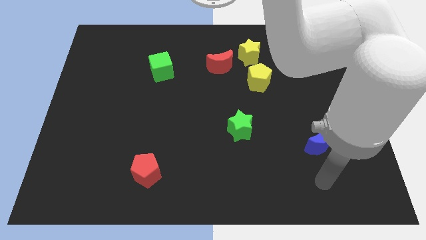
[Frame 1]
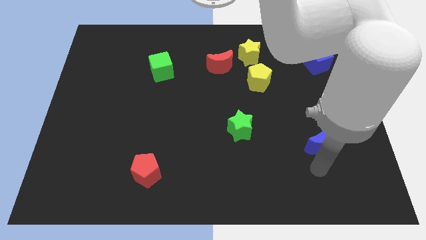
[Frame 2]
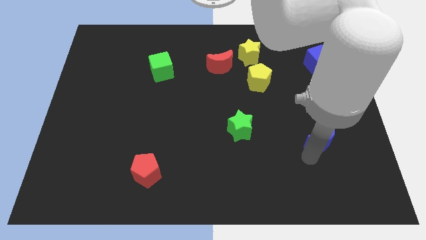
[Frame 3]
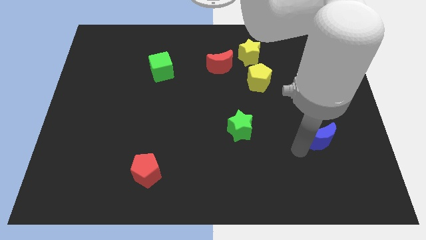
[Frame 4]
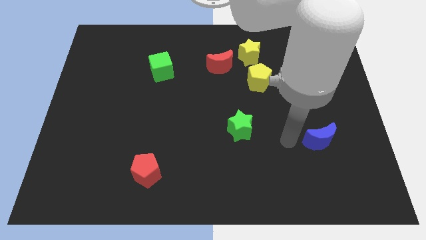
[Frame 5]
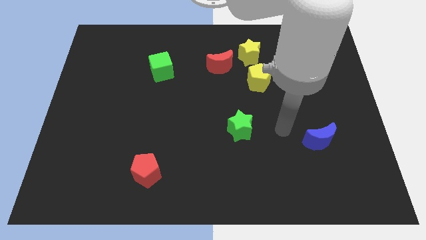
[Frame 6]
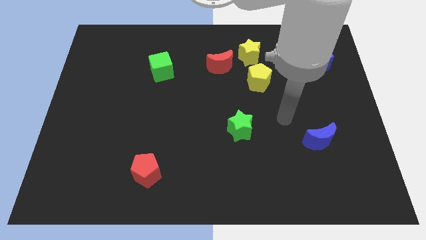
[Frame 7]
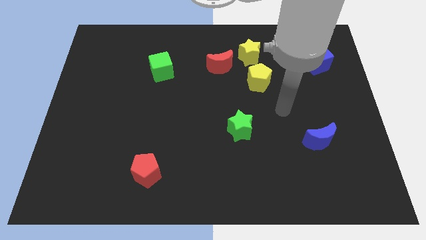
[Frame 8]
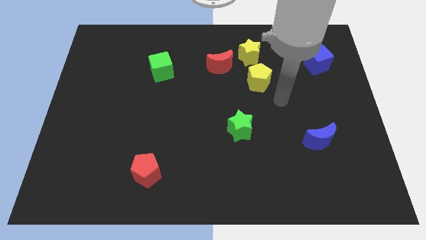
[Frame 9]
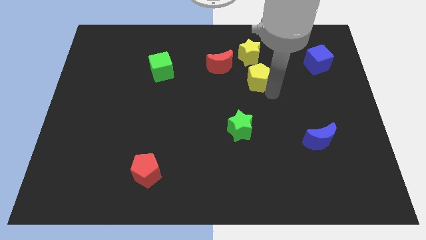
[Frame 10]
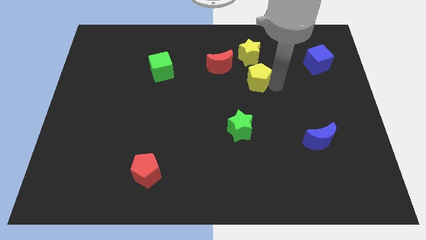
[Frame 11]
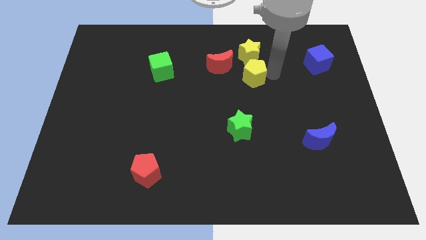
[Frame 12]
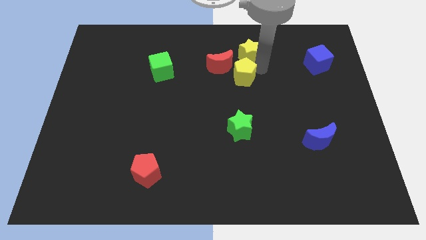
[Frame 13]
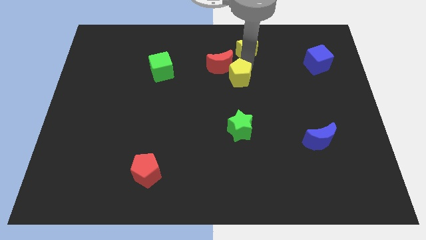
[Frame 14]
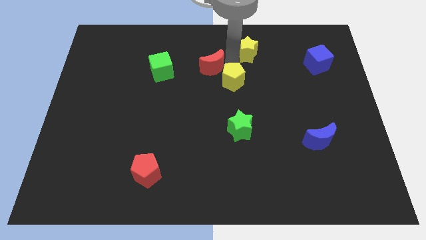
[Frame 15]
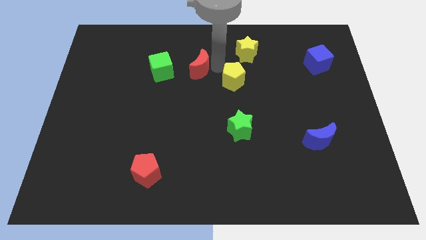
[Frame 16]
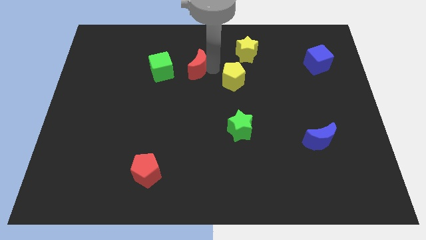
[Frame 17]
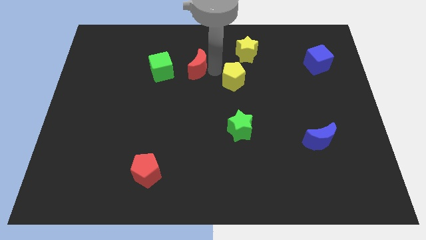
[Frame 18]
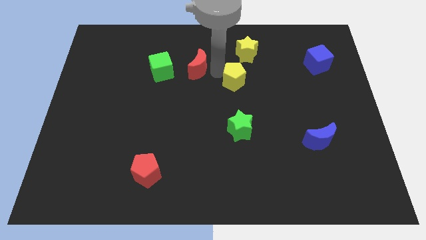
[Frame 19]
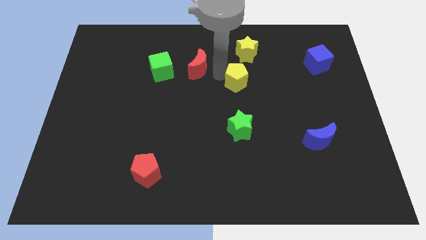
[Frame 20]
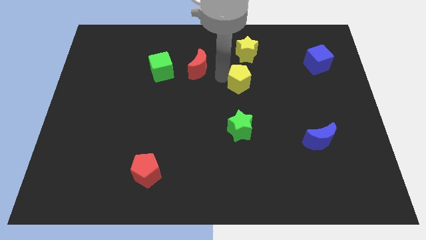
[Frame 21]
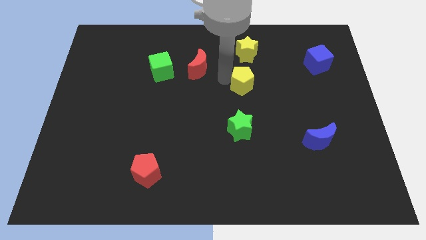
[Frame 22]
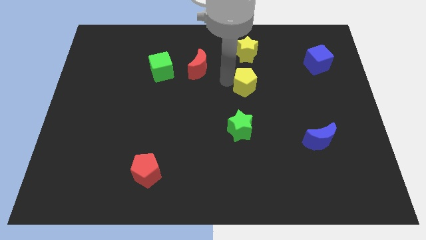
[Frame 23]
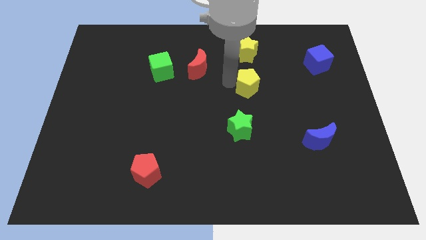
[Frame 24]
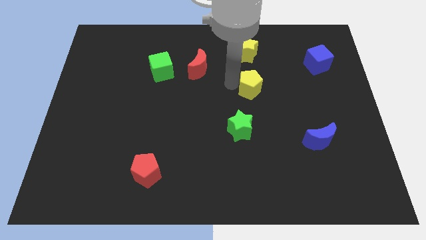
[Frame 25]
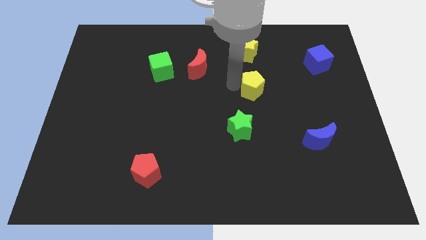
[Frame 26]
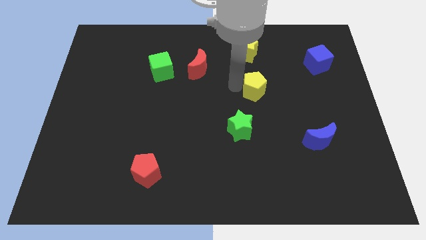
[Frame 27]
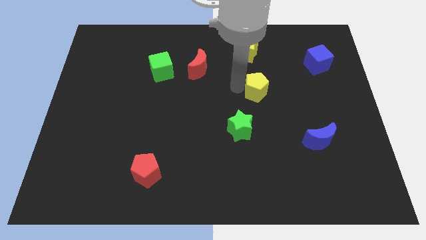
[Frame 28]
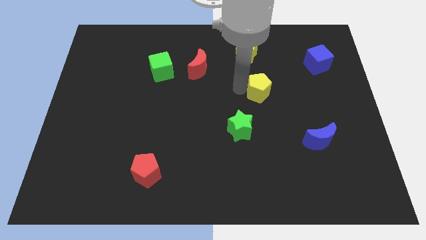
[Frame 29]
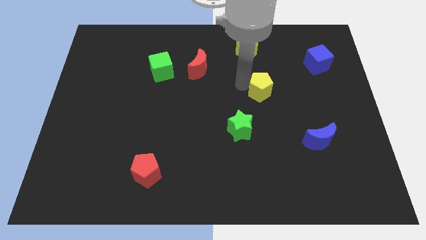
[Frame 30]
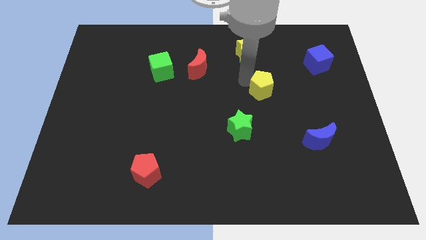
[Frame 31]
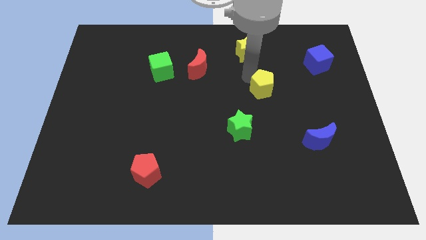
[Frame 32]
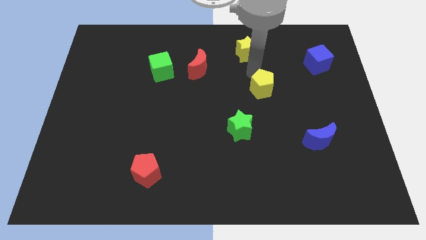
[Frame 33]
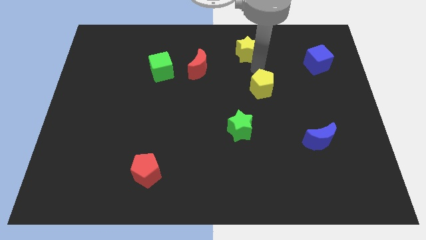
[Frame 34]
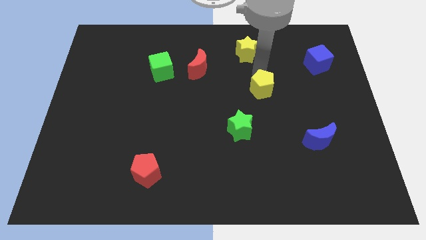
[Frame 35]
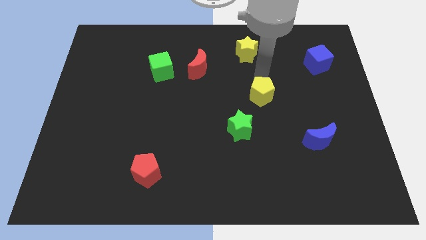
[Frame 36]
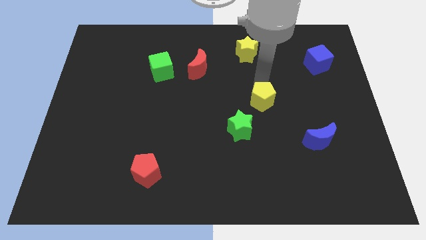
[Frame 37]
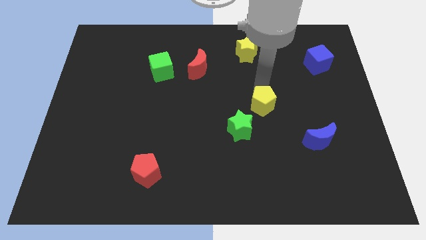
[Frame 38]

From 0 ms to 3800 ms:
push the yellow pentagon a bit down

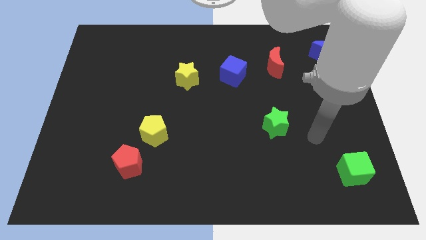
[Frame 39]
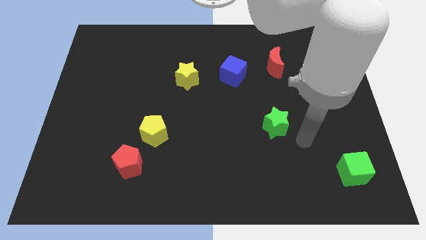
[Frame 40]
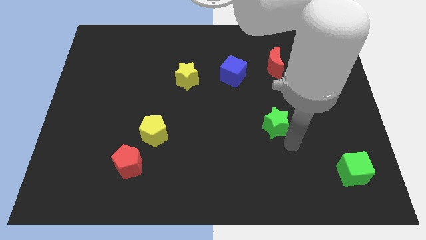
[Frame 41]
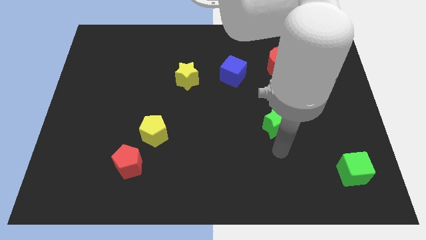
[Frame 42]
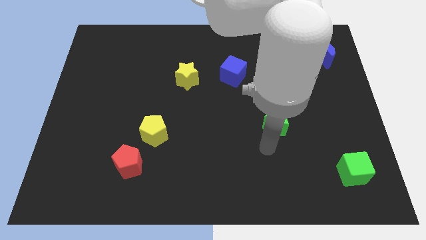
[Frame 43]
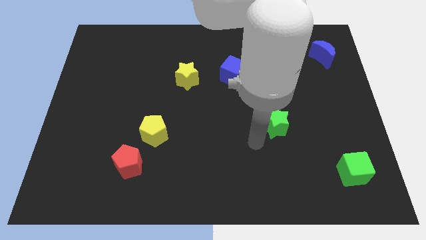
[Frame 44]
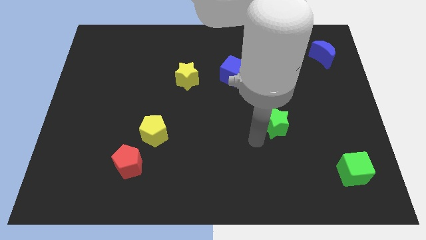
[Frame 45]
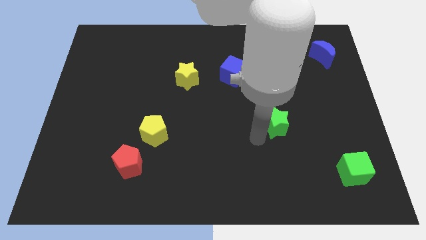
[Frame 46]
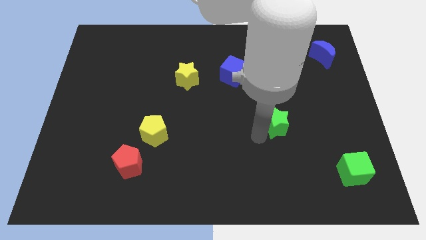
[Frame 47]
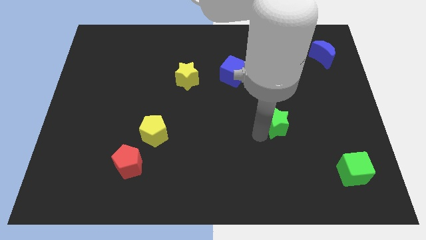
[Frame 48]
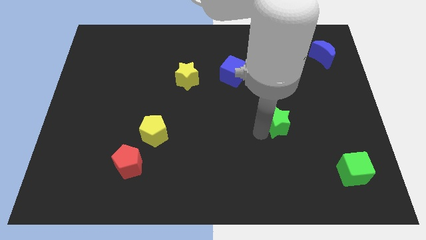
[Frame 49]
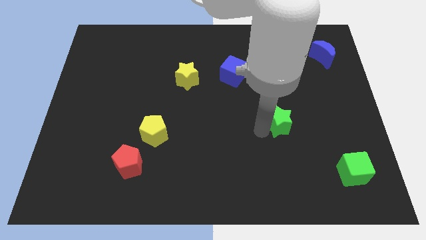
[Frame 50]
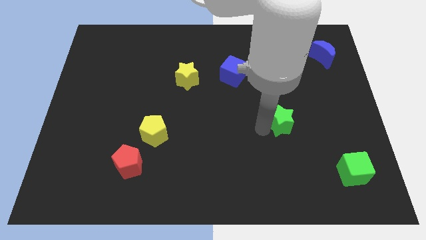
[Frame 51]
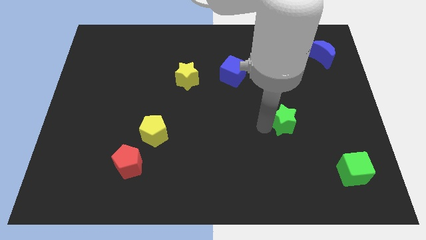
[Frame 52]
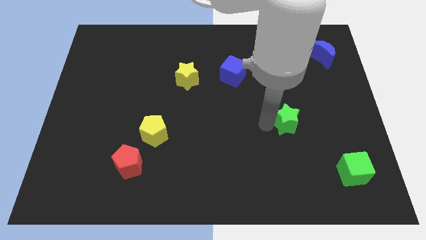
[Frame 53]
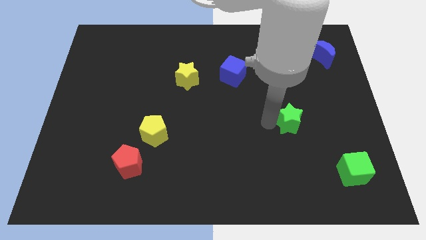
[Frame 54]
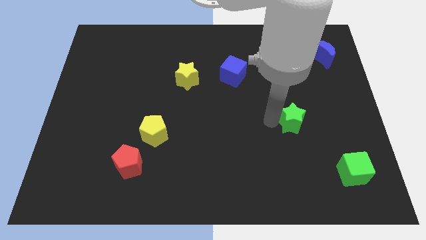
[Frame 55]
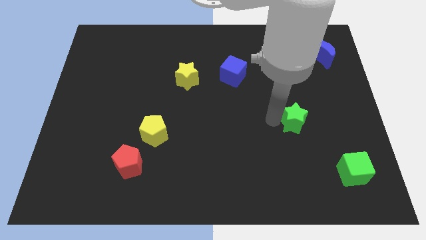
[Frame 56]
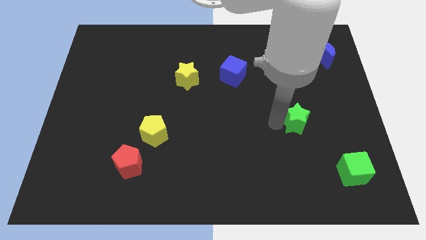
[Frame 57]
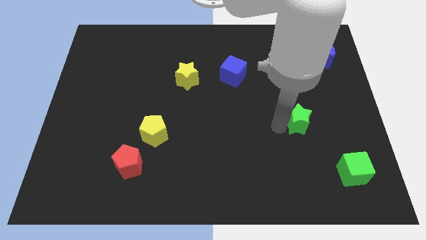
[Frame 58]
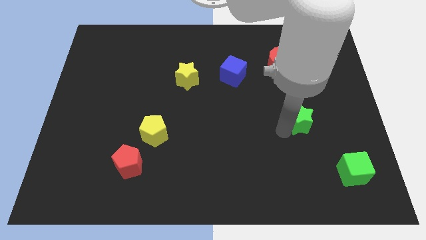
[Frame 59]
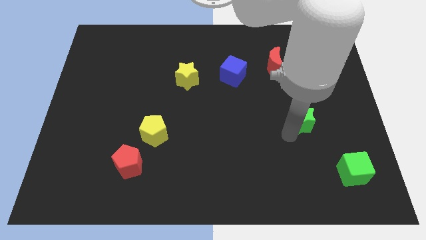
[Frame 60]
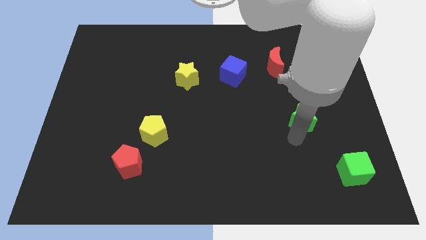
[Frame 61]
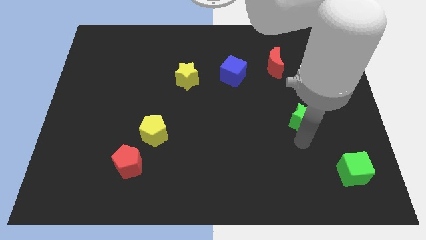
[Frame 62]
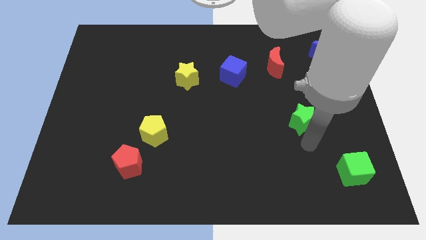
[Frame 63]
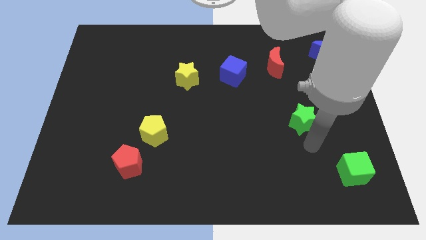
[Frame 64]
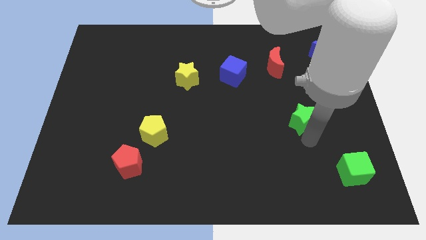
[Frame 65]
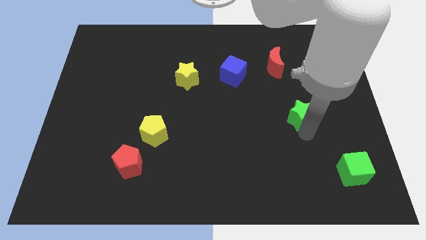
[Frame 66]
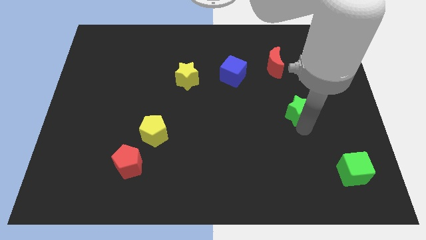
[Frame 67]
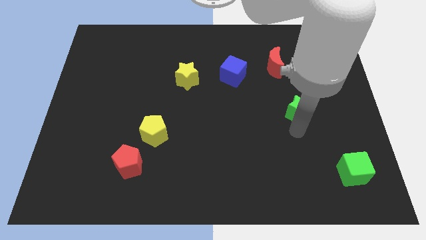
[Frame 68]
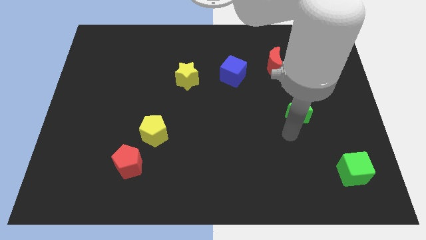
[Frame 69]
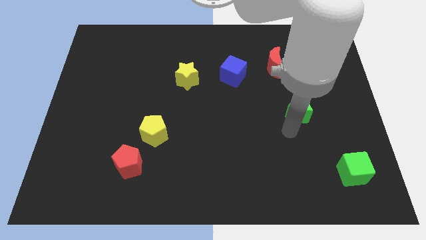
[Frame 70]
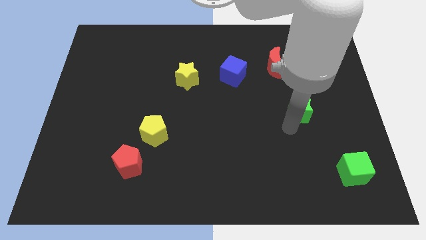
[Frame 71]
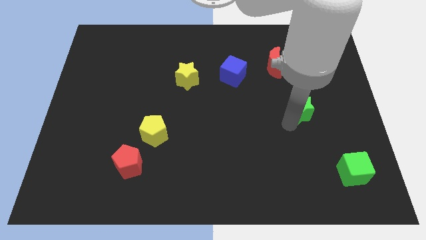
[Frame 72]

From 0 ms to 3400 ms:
slightly push the green star diagonally up and to the right

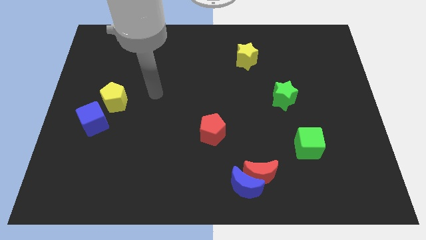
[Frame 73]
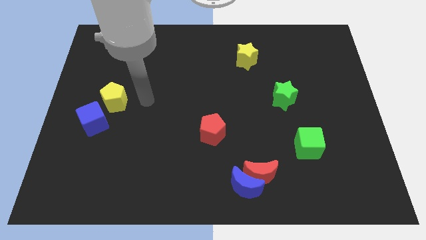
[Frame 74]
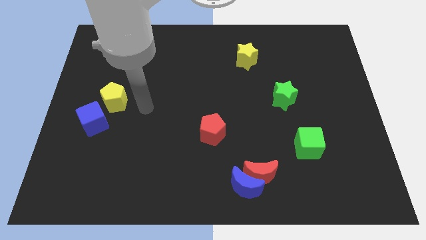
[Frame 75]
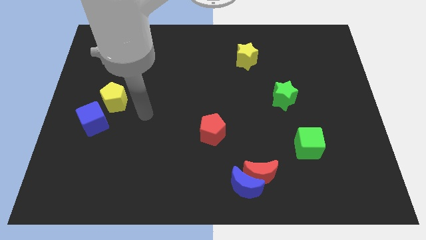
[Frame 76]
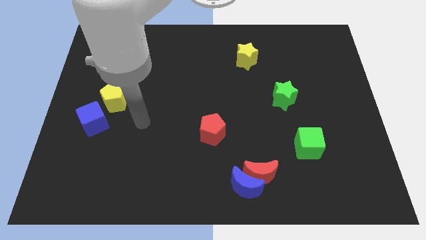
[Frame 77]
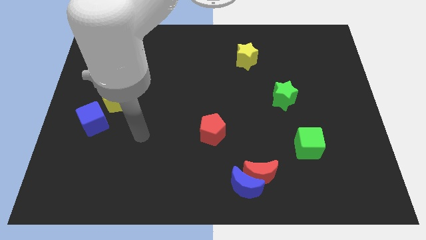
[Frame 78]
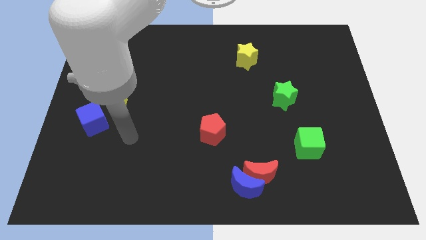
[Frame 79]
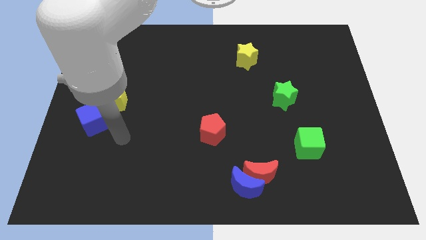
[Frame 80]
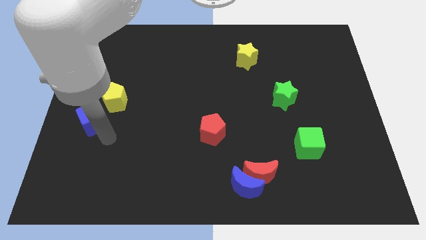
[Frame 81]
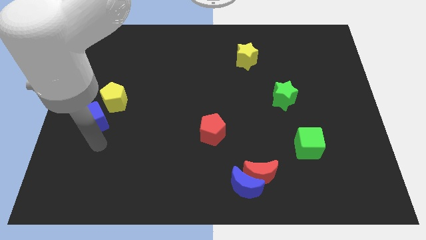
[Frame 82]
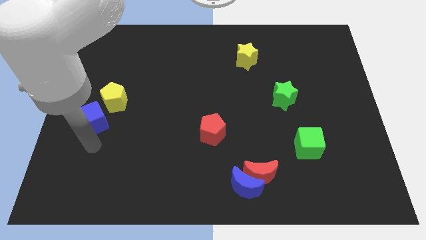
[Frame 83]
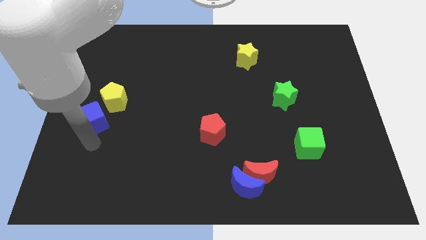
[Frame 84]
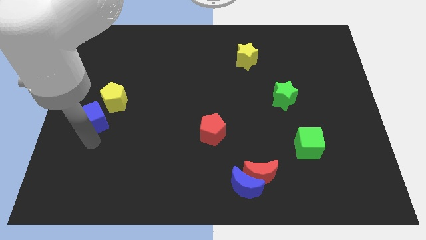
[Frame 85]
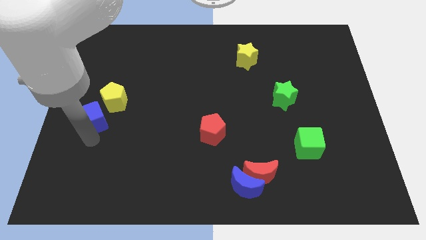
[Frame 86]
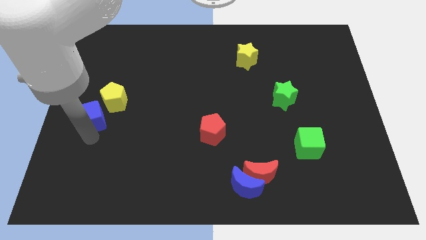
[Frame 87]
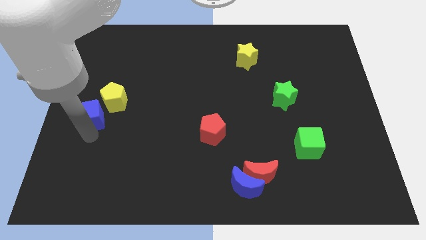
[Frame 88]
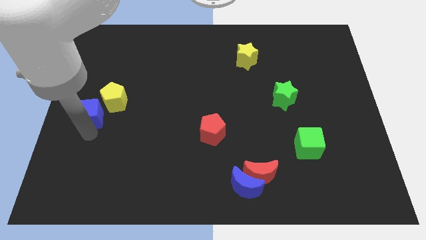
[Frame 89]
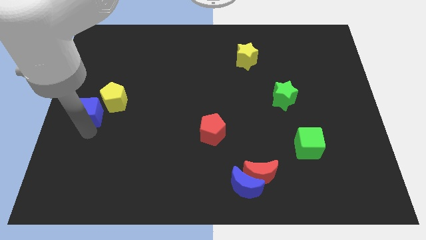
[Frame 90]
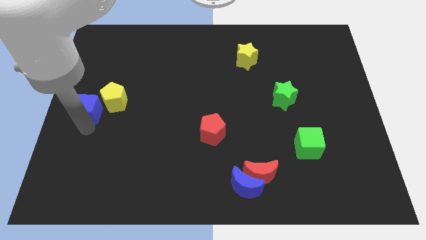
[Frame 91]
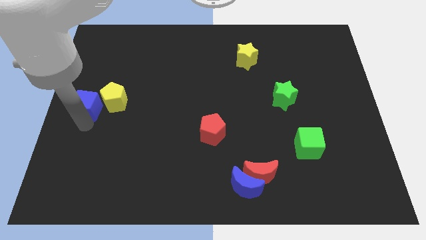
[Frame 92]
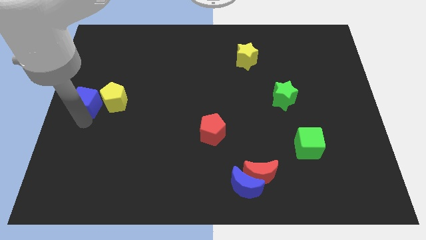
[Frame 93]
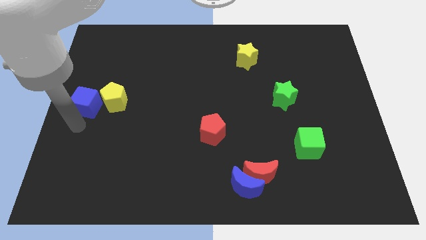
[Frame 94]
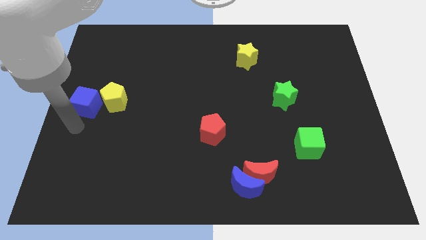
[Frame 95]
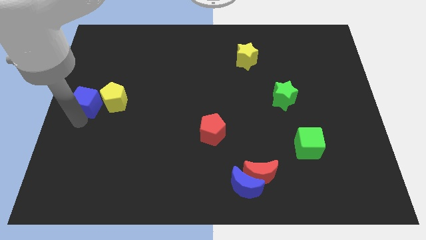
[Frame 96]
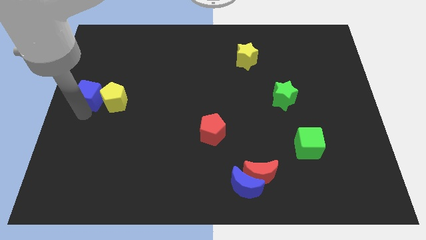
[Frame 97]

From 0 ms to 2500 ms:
move the blue cube upwards slightly
